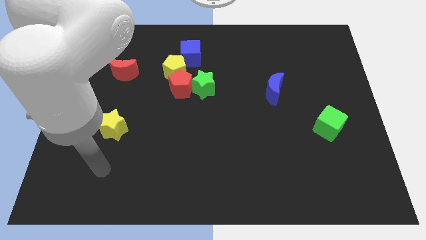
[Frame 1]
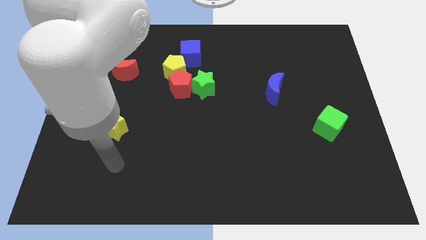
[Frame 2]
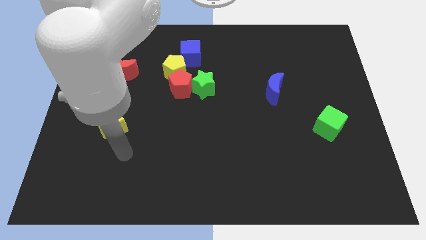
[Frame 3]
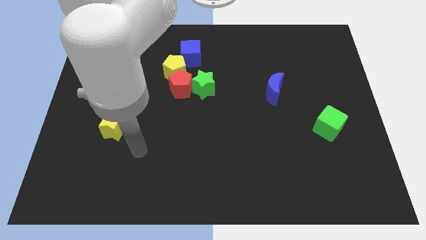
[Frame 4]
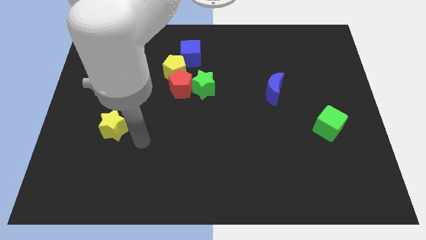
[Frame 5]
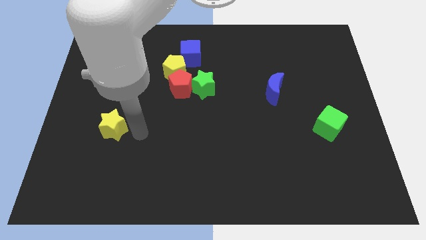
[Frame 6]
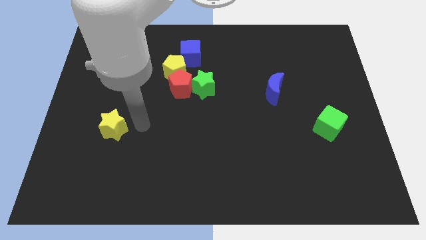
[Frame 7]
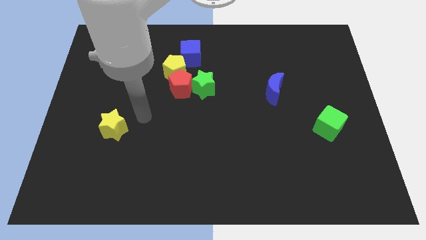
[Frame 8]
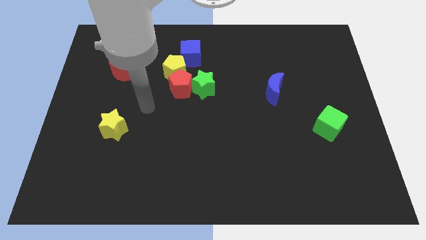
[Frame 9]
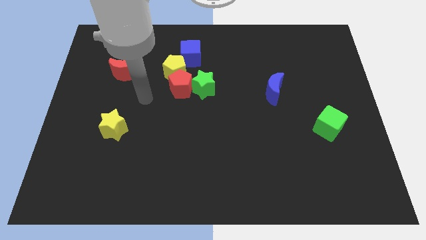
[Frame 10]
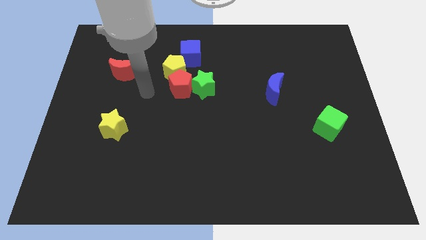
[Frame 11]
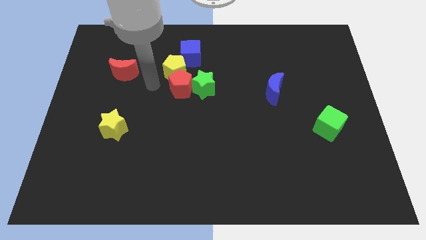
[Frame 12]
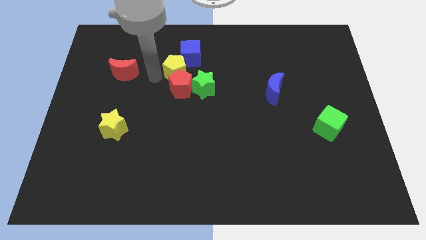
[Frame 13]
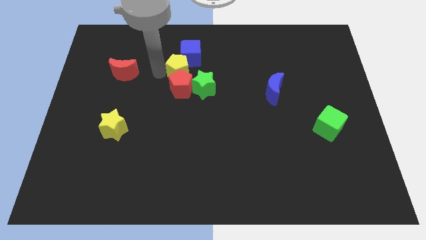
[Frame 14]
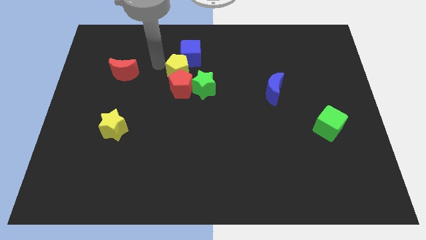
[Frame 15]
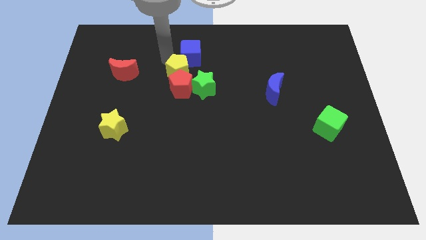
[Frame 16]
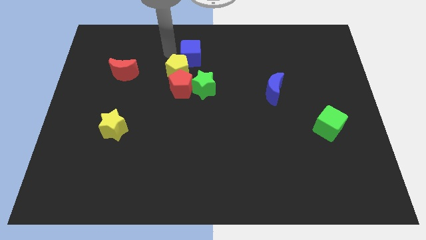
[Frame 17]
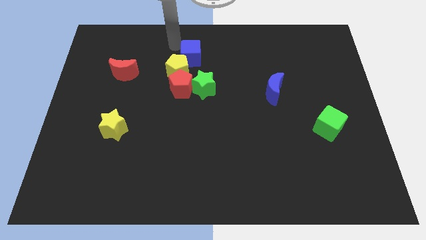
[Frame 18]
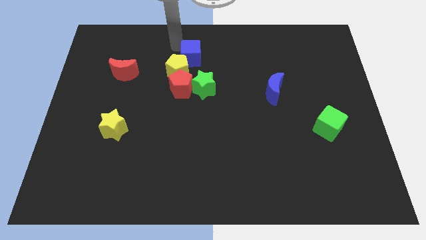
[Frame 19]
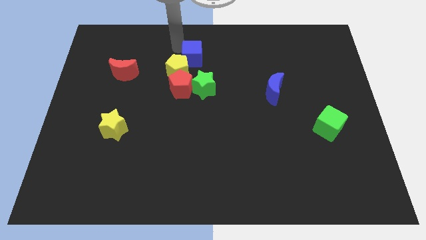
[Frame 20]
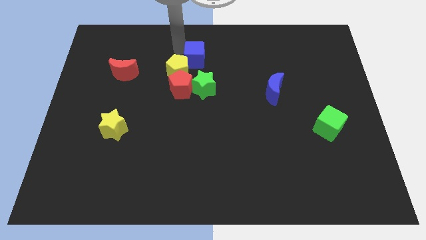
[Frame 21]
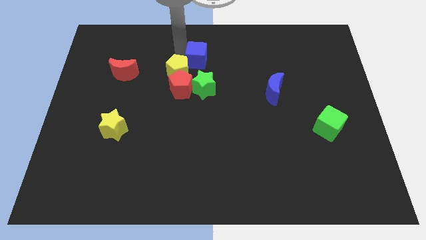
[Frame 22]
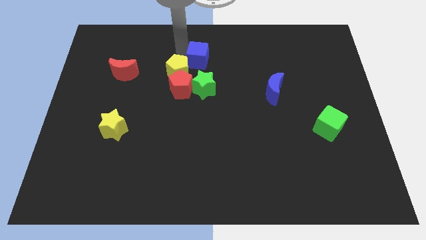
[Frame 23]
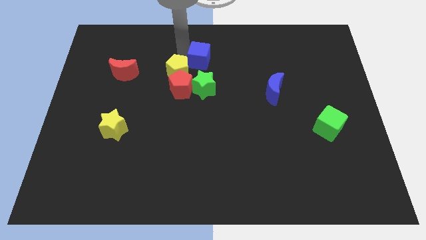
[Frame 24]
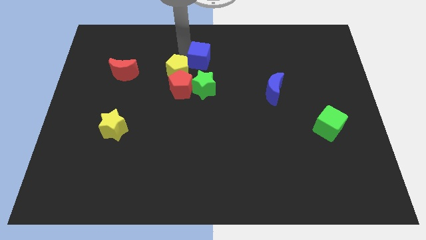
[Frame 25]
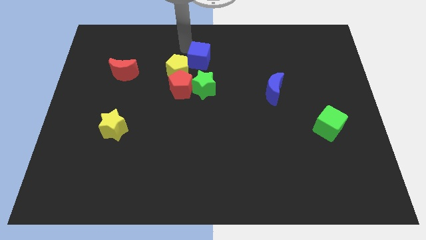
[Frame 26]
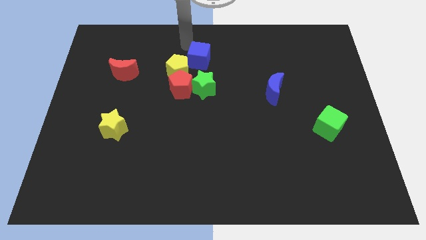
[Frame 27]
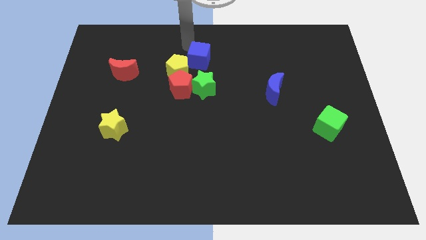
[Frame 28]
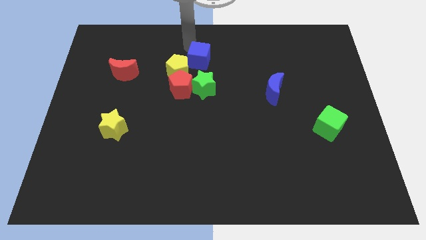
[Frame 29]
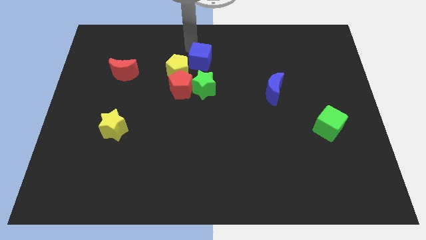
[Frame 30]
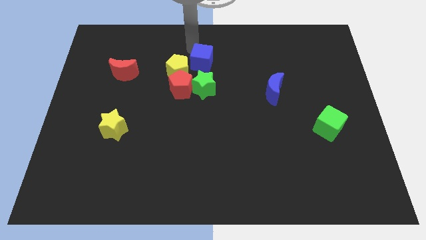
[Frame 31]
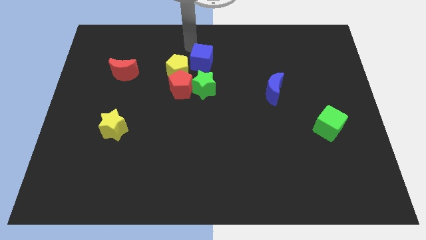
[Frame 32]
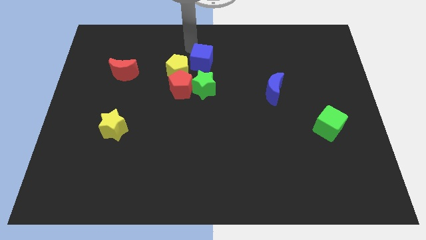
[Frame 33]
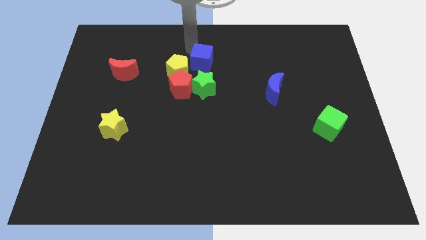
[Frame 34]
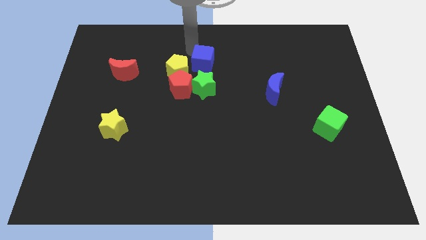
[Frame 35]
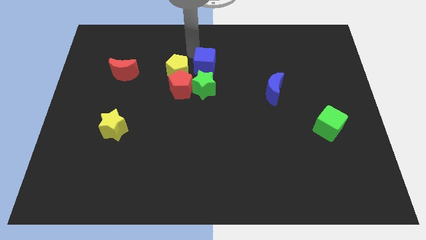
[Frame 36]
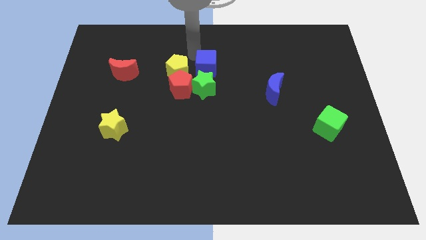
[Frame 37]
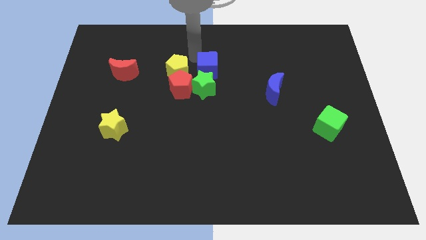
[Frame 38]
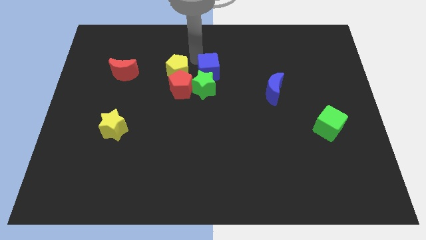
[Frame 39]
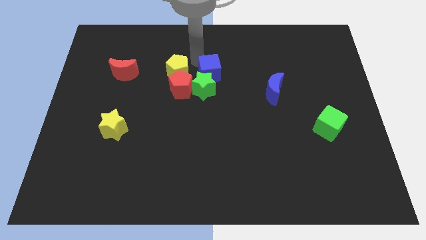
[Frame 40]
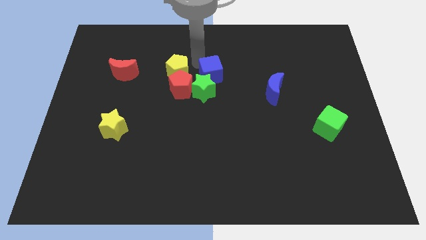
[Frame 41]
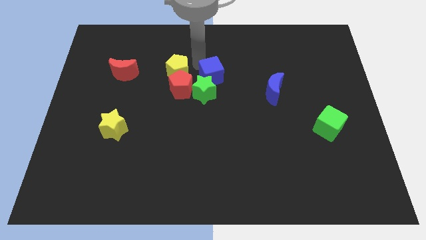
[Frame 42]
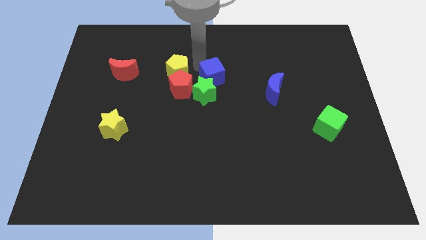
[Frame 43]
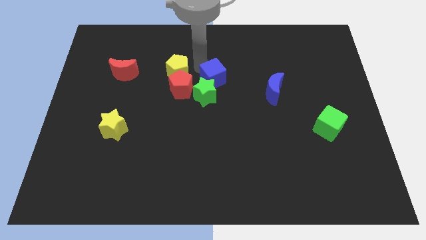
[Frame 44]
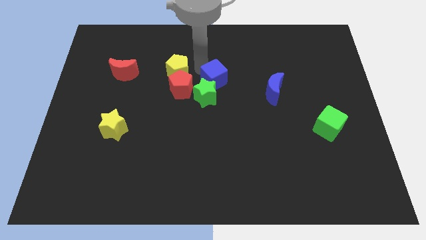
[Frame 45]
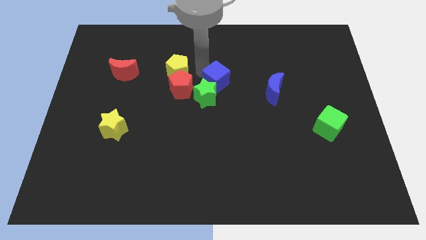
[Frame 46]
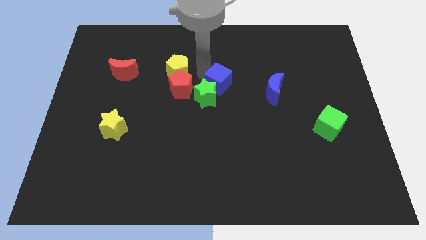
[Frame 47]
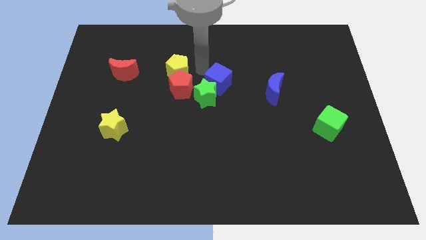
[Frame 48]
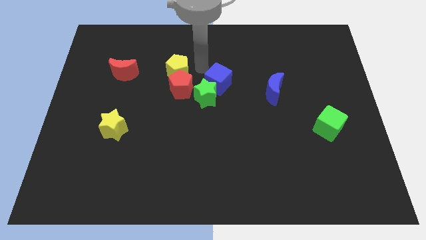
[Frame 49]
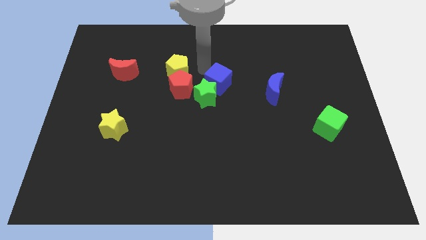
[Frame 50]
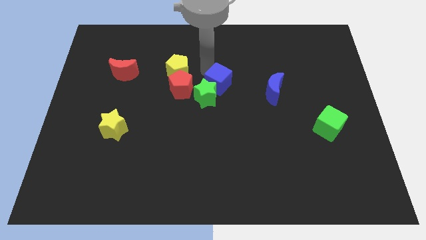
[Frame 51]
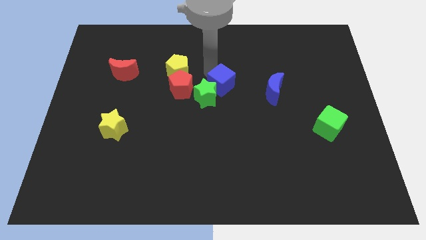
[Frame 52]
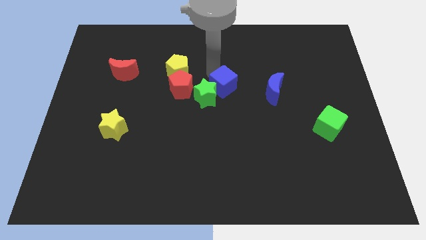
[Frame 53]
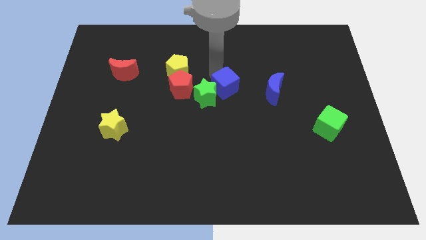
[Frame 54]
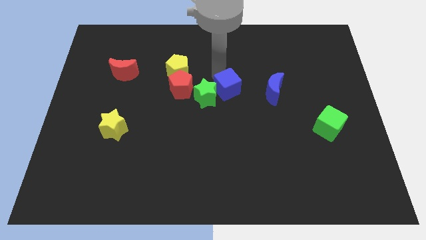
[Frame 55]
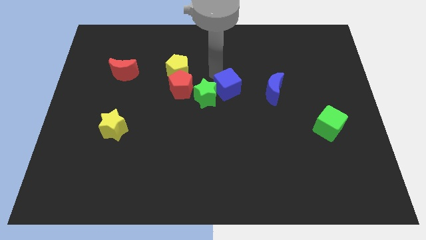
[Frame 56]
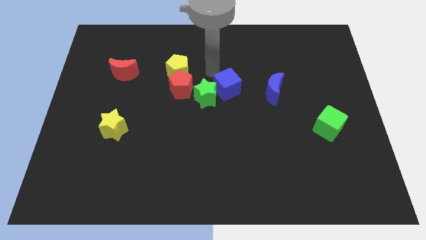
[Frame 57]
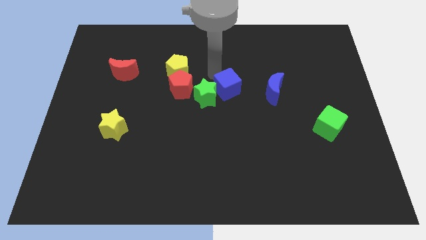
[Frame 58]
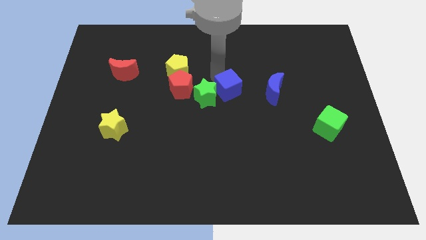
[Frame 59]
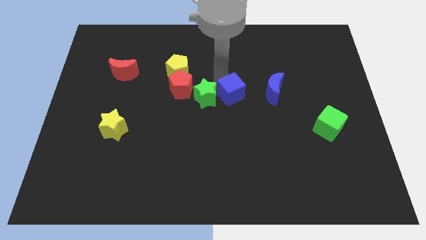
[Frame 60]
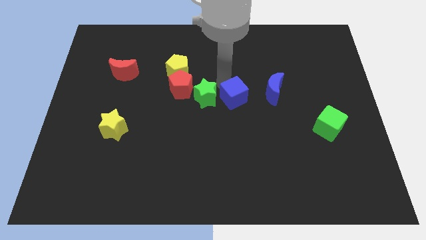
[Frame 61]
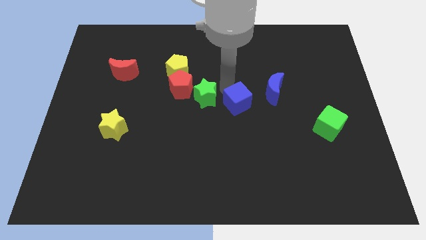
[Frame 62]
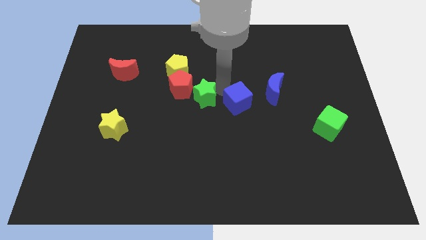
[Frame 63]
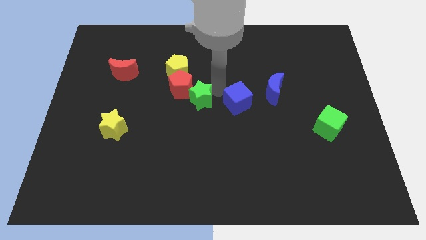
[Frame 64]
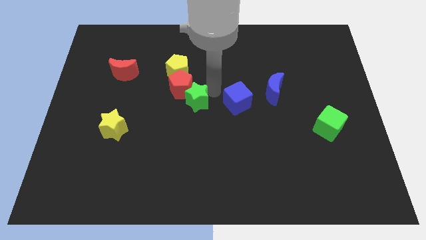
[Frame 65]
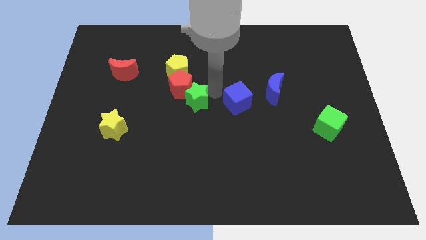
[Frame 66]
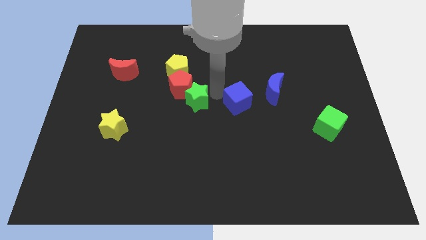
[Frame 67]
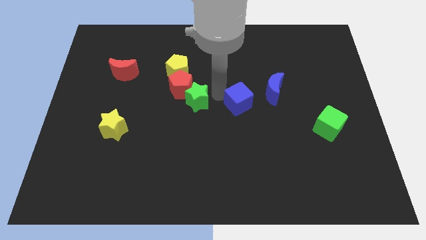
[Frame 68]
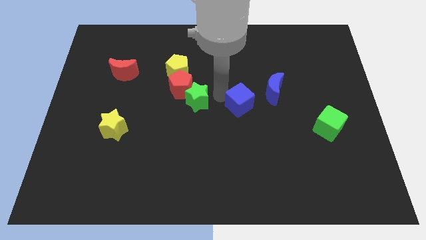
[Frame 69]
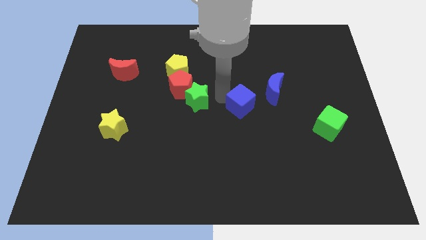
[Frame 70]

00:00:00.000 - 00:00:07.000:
push the blue cube down and then right

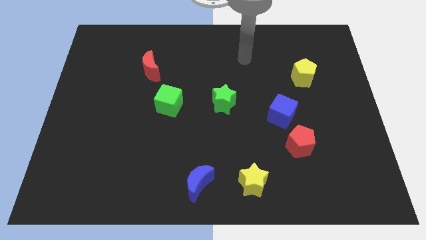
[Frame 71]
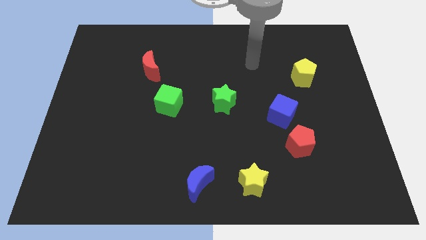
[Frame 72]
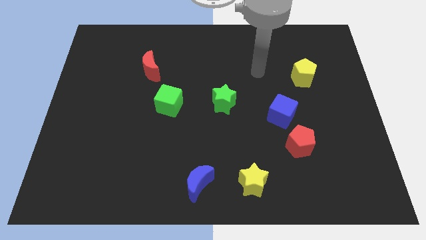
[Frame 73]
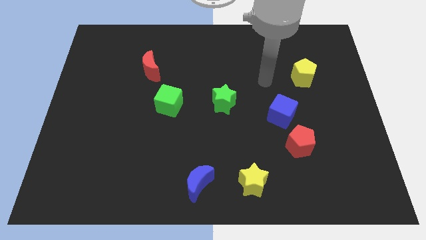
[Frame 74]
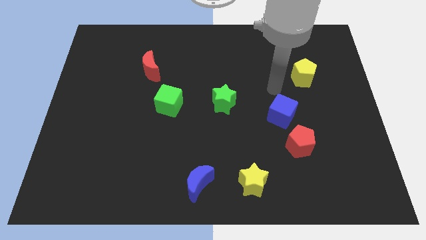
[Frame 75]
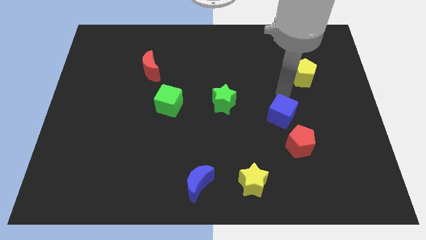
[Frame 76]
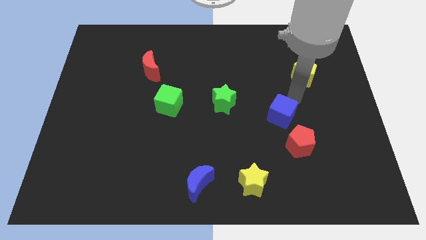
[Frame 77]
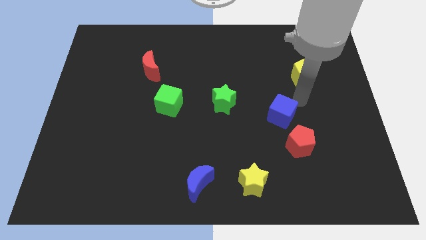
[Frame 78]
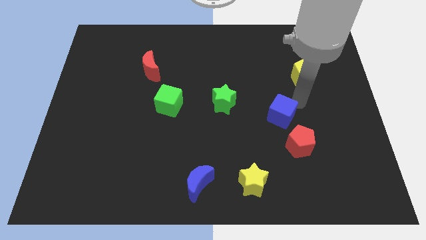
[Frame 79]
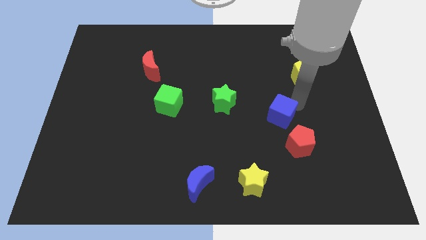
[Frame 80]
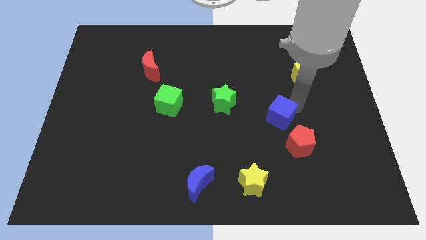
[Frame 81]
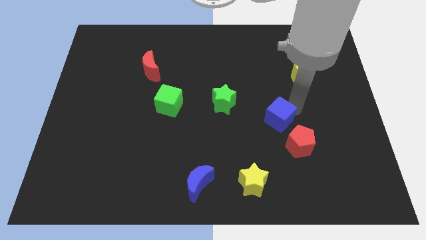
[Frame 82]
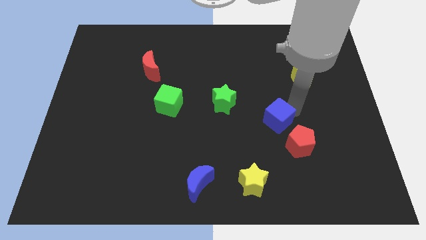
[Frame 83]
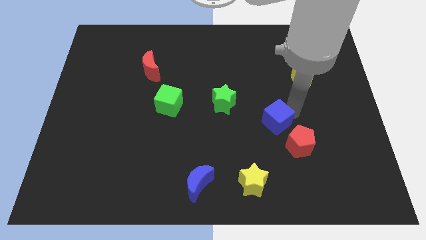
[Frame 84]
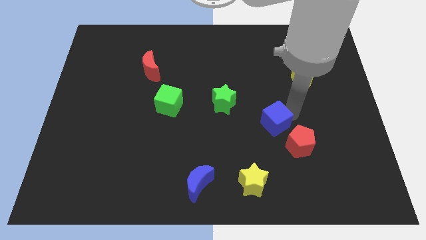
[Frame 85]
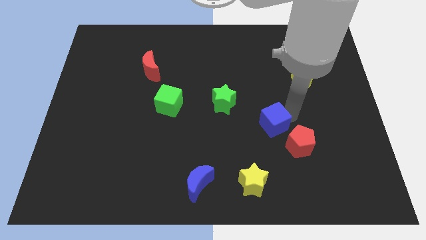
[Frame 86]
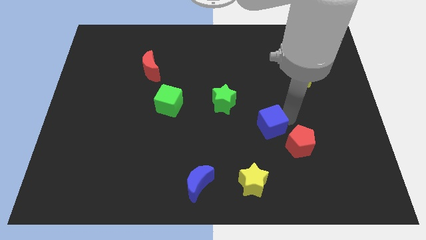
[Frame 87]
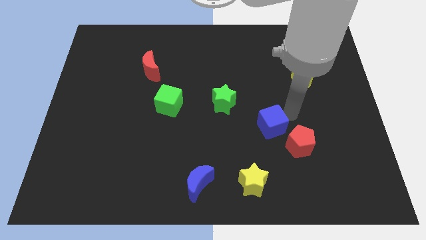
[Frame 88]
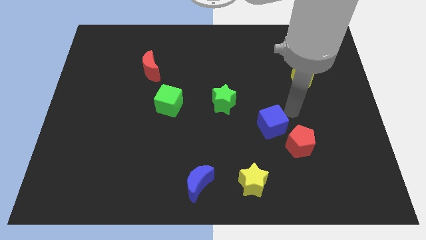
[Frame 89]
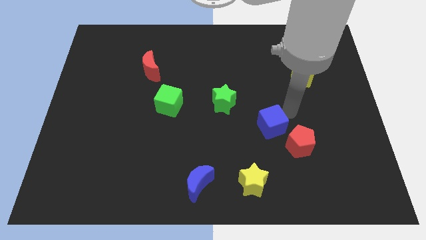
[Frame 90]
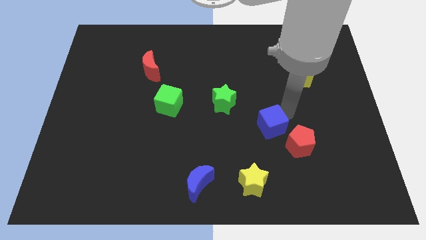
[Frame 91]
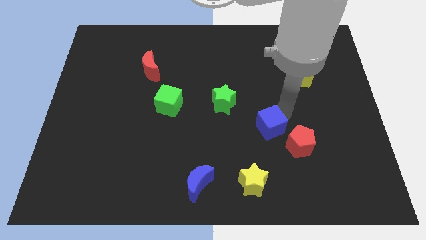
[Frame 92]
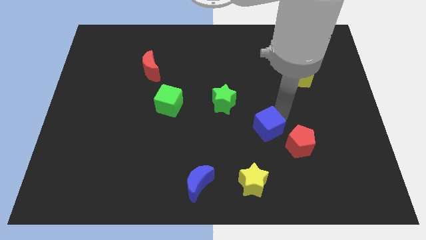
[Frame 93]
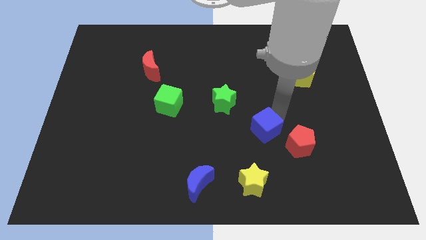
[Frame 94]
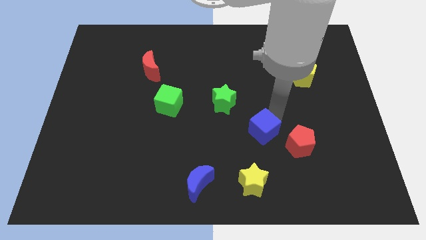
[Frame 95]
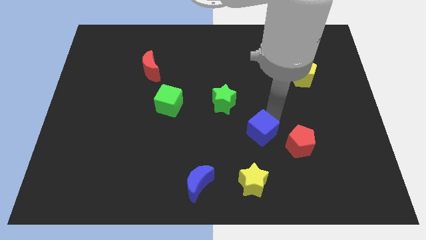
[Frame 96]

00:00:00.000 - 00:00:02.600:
slide the blue cube diagonally down and left a little bit
